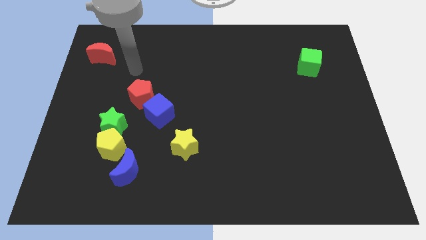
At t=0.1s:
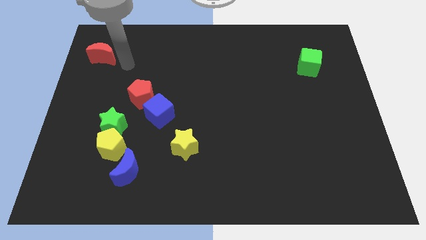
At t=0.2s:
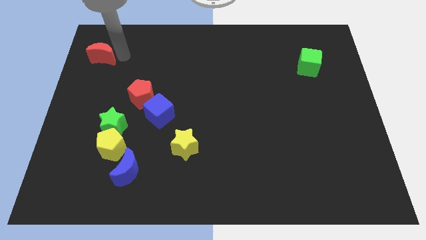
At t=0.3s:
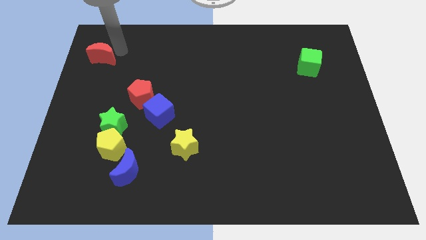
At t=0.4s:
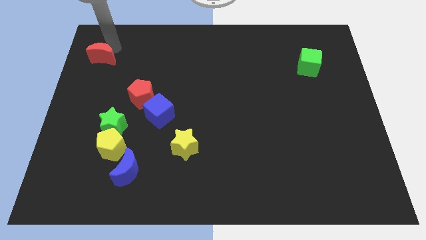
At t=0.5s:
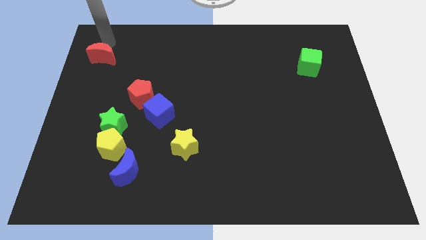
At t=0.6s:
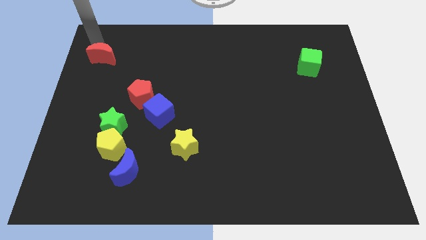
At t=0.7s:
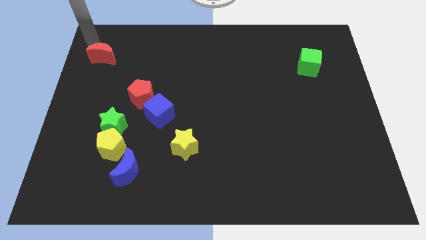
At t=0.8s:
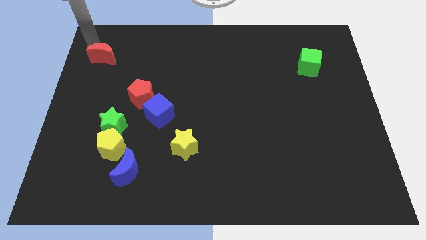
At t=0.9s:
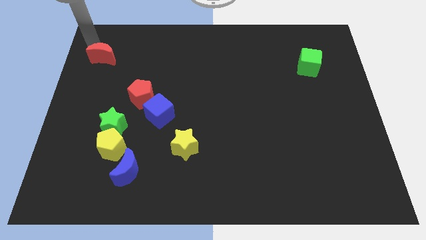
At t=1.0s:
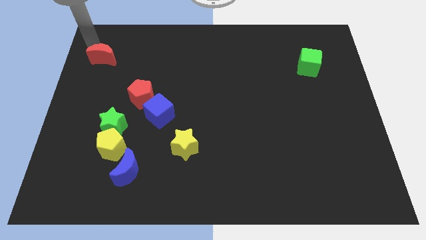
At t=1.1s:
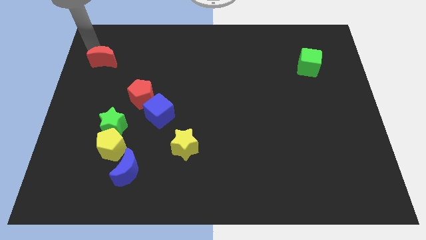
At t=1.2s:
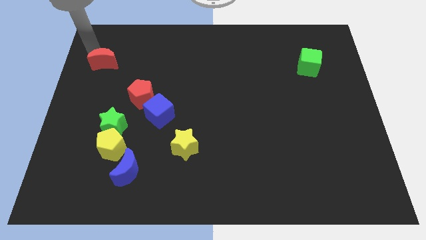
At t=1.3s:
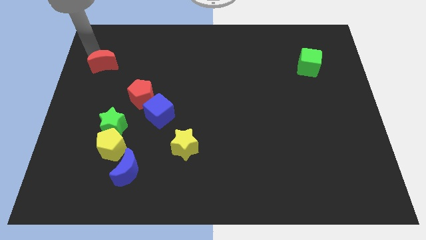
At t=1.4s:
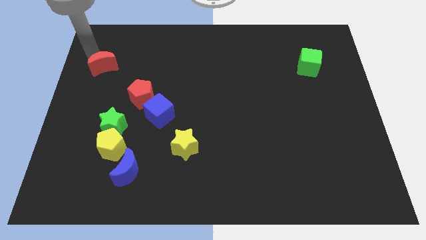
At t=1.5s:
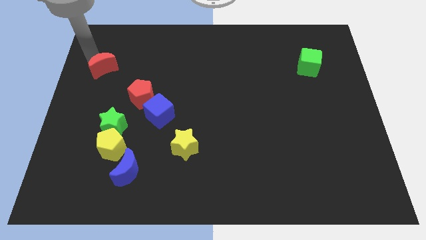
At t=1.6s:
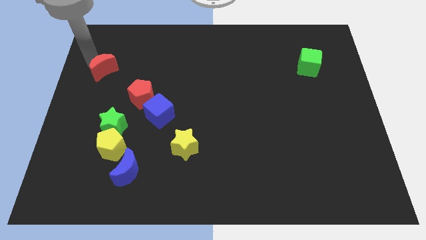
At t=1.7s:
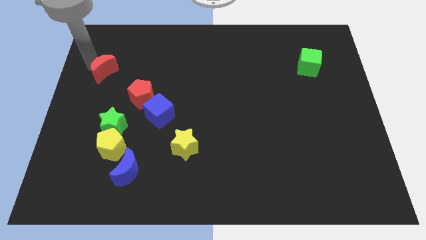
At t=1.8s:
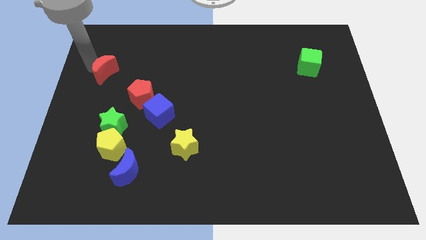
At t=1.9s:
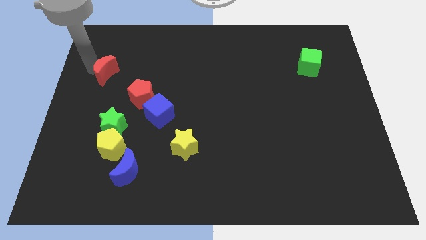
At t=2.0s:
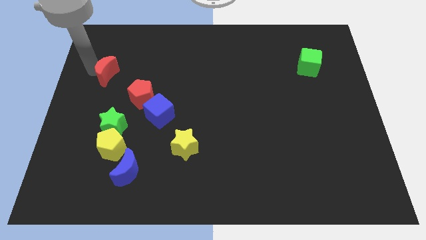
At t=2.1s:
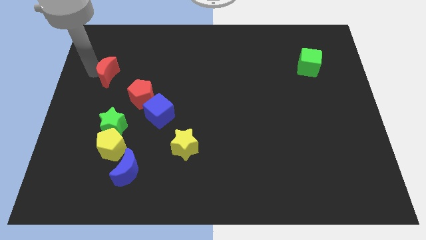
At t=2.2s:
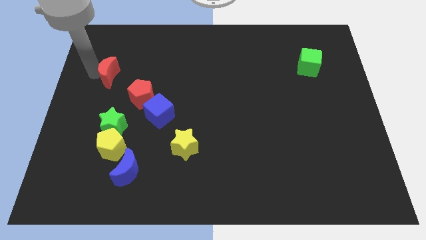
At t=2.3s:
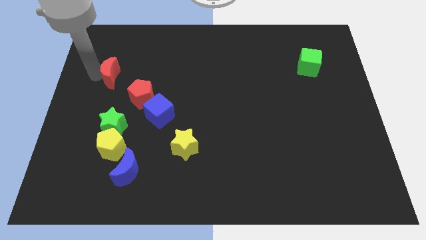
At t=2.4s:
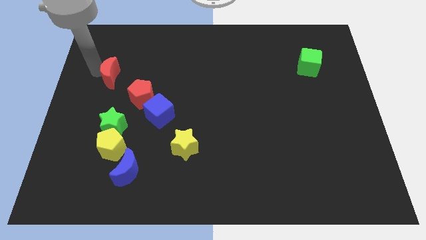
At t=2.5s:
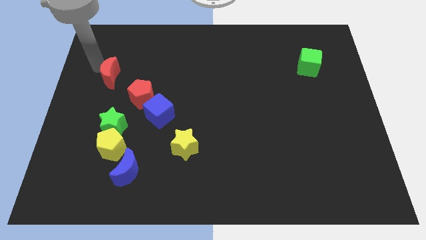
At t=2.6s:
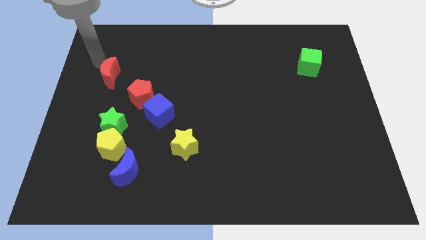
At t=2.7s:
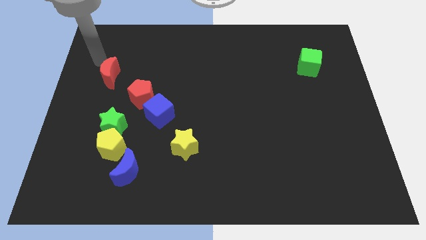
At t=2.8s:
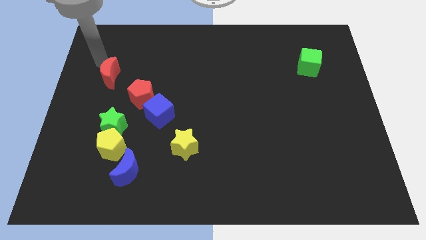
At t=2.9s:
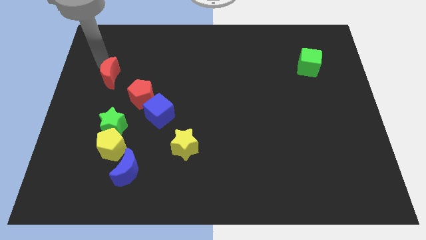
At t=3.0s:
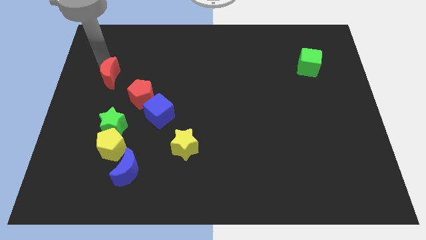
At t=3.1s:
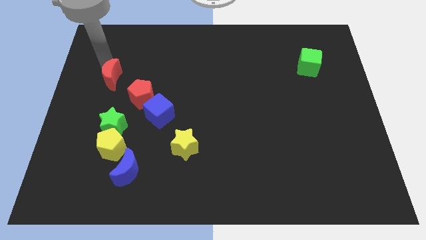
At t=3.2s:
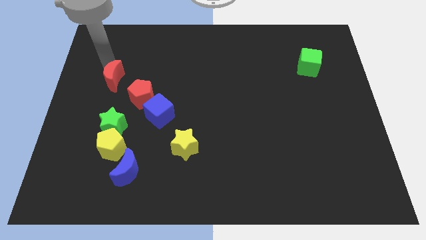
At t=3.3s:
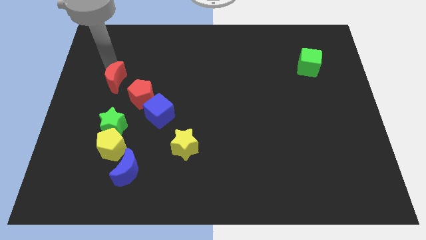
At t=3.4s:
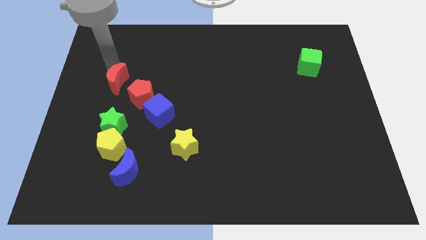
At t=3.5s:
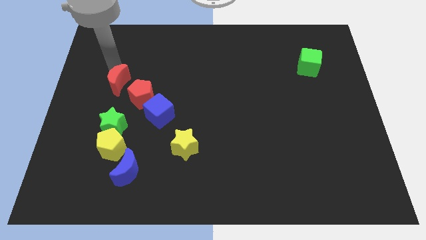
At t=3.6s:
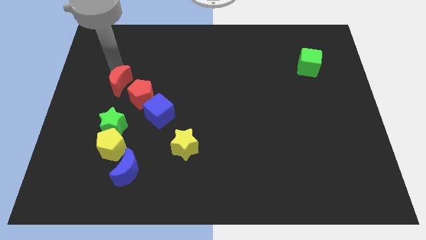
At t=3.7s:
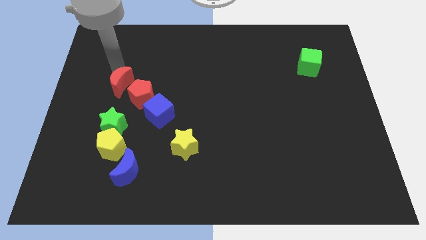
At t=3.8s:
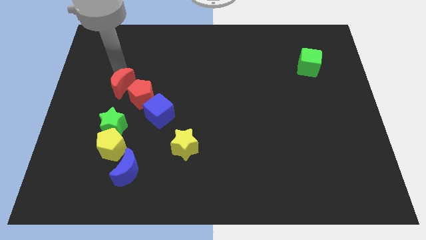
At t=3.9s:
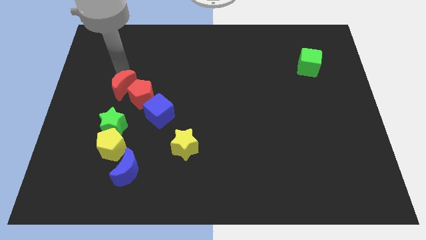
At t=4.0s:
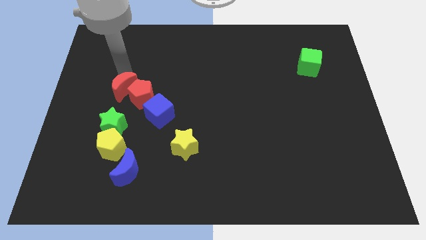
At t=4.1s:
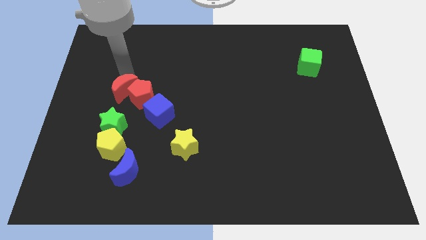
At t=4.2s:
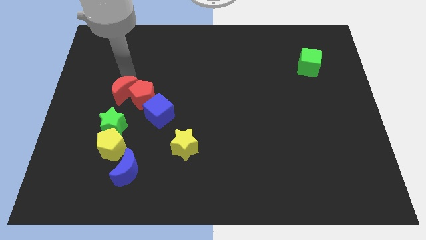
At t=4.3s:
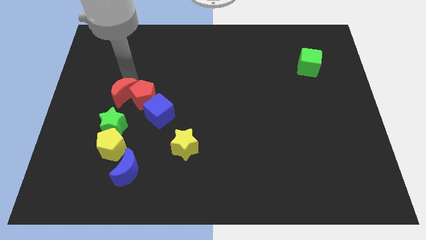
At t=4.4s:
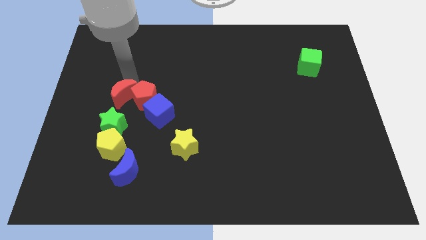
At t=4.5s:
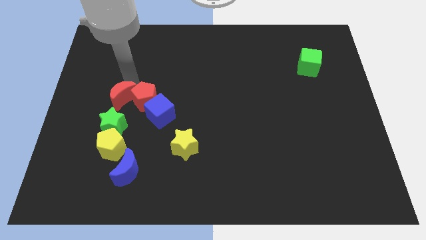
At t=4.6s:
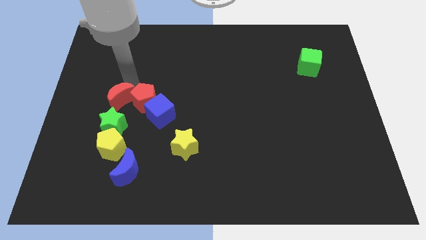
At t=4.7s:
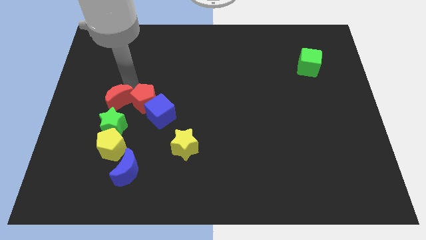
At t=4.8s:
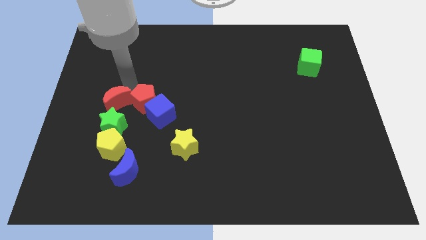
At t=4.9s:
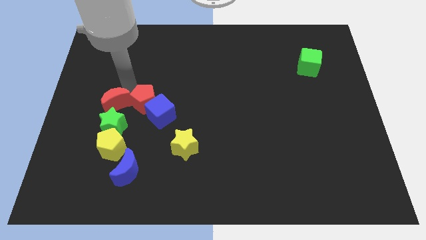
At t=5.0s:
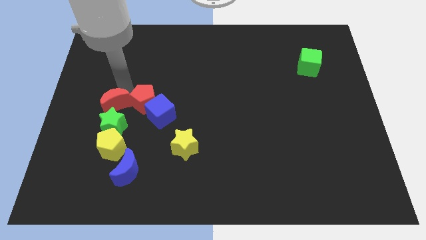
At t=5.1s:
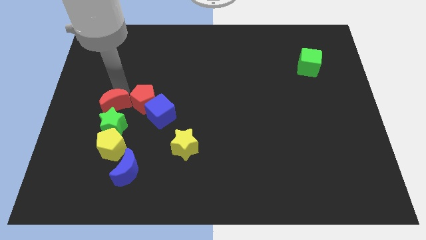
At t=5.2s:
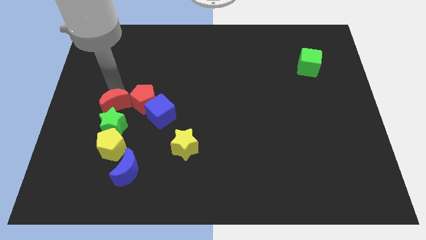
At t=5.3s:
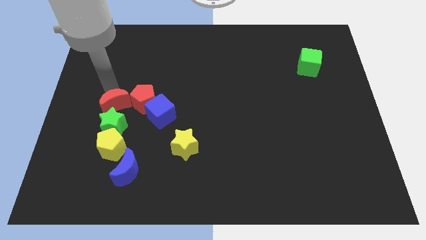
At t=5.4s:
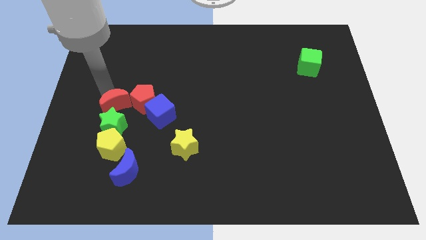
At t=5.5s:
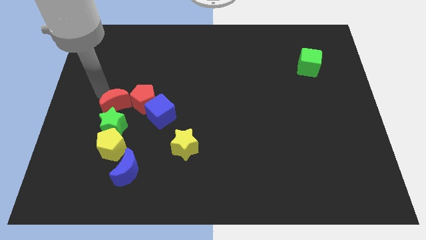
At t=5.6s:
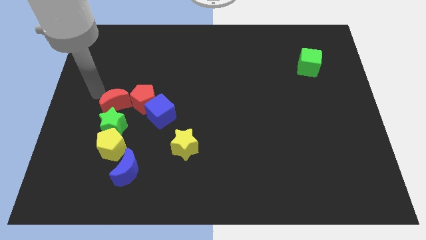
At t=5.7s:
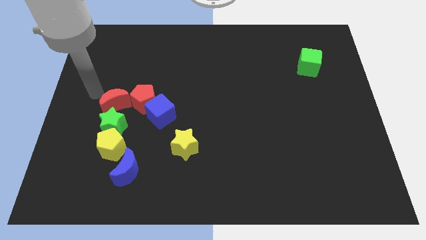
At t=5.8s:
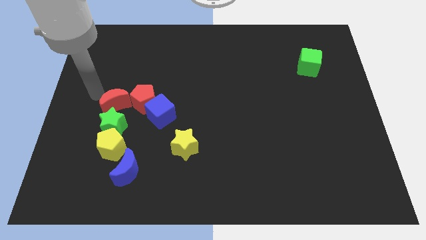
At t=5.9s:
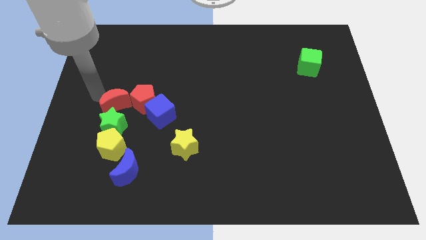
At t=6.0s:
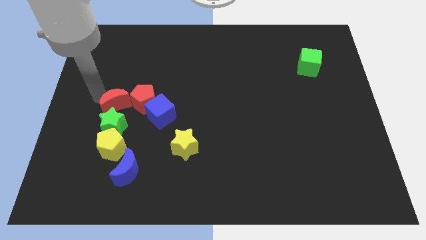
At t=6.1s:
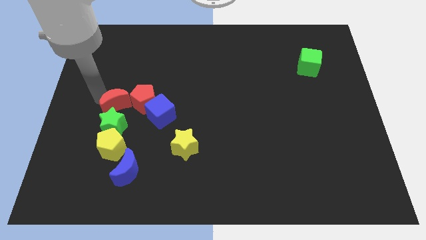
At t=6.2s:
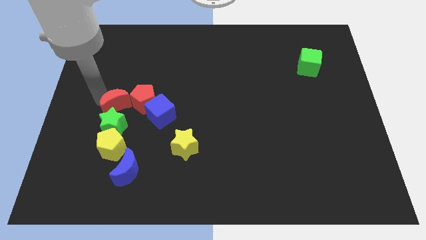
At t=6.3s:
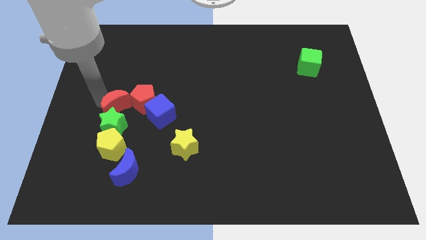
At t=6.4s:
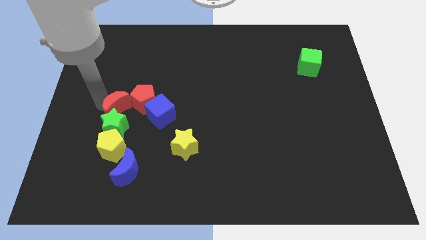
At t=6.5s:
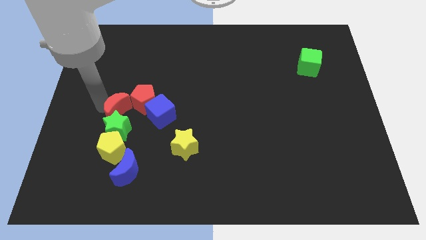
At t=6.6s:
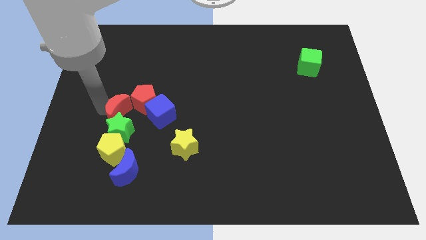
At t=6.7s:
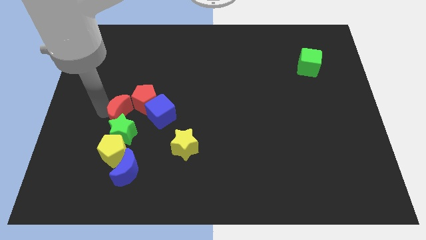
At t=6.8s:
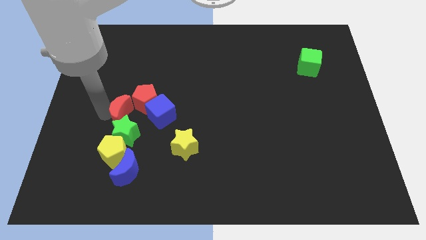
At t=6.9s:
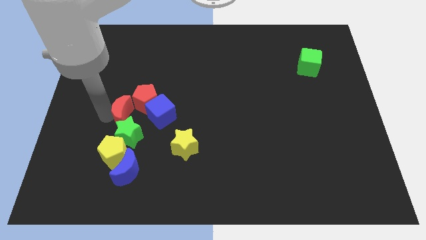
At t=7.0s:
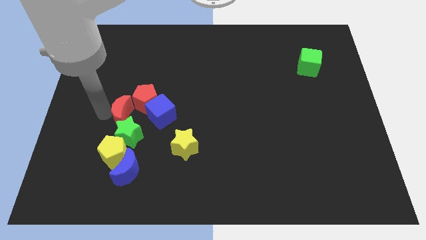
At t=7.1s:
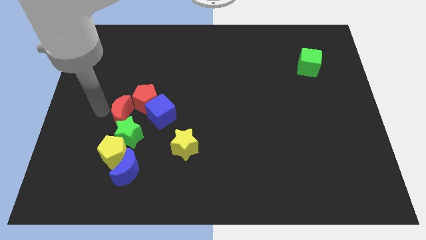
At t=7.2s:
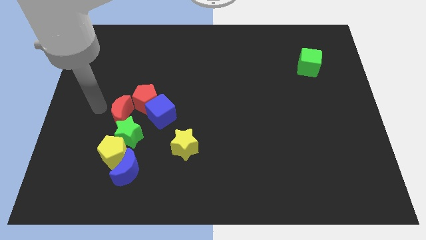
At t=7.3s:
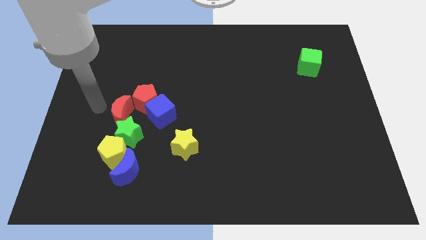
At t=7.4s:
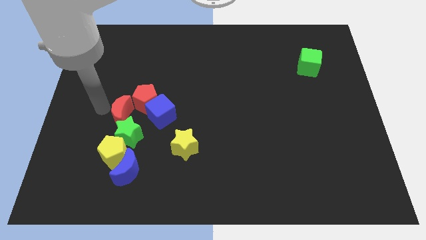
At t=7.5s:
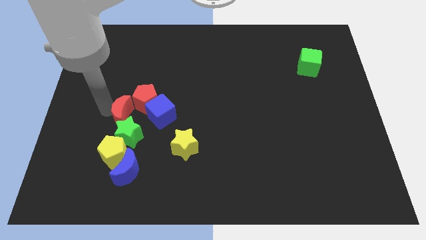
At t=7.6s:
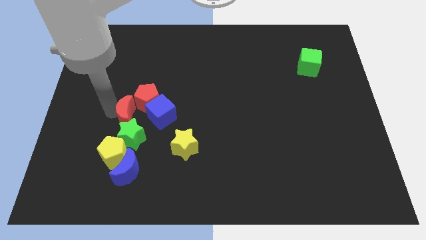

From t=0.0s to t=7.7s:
put the red moon below the red pentagon
